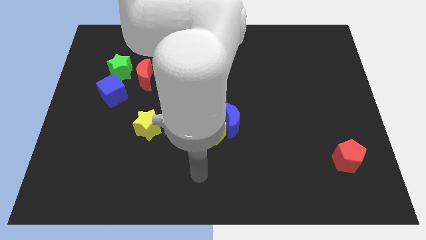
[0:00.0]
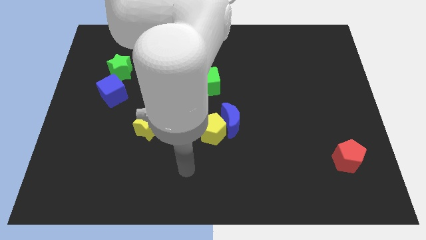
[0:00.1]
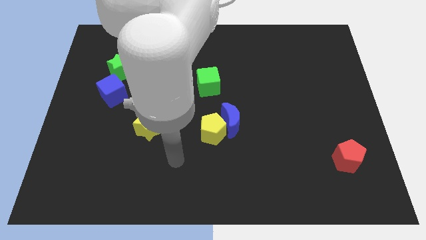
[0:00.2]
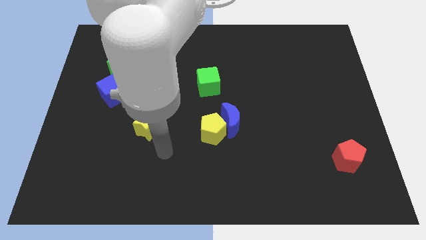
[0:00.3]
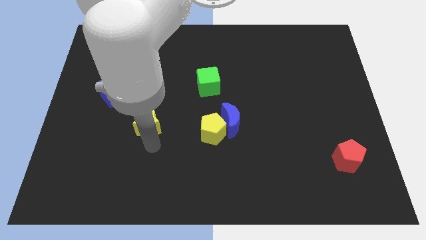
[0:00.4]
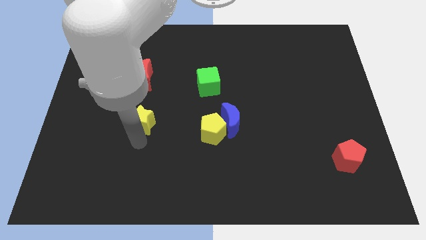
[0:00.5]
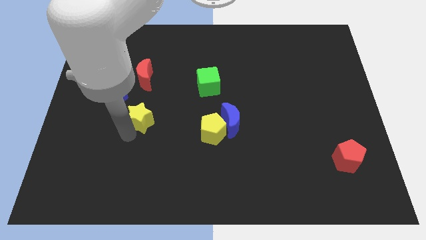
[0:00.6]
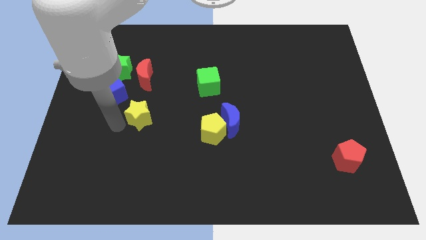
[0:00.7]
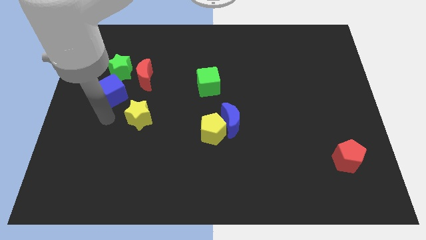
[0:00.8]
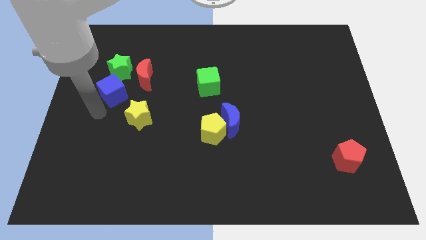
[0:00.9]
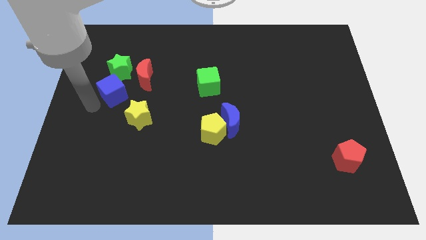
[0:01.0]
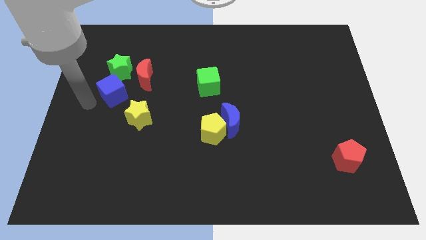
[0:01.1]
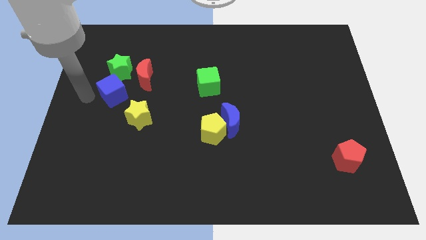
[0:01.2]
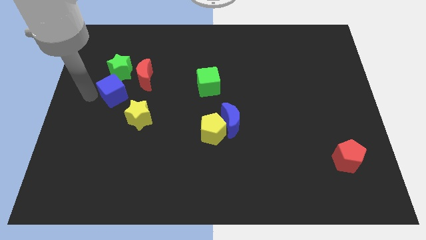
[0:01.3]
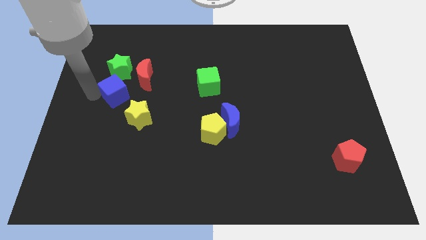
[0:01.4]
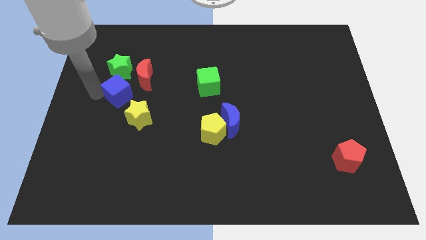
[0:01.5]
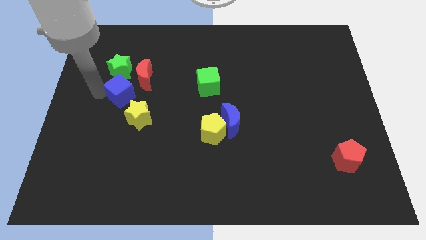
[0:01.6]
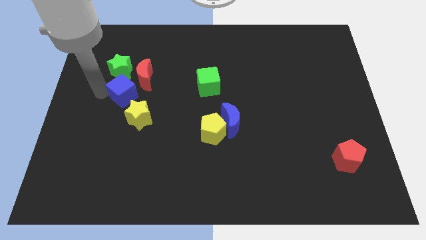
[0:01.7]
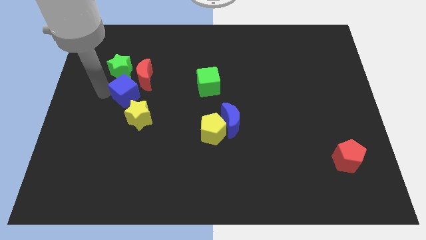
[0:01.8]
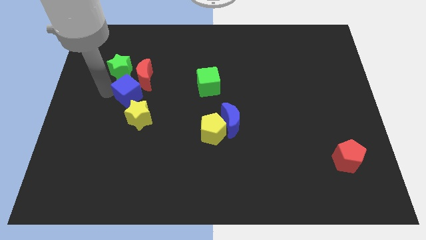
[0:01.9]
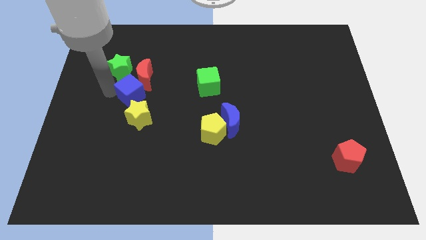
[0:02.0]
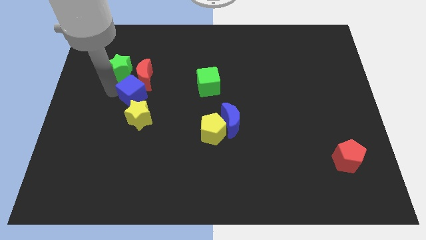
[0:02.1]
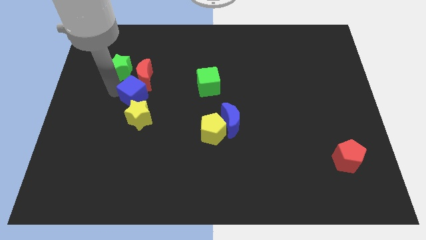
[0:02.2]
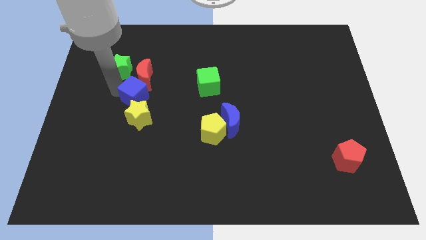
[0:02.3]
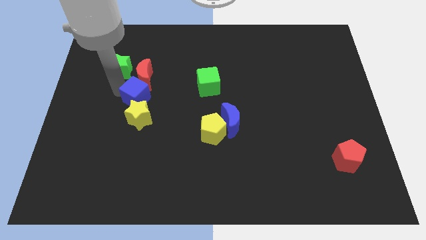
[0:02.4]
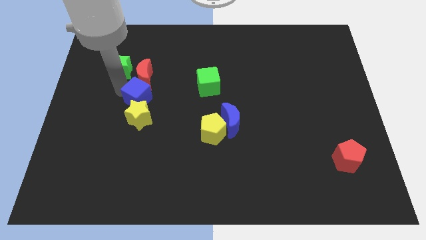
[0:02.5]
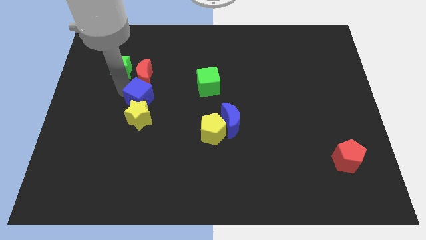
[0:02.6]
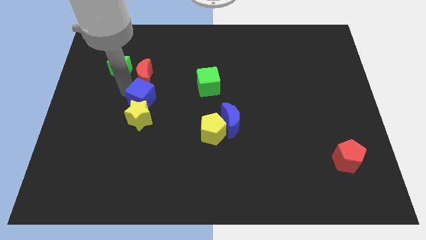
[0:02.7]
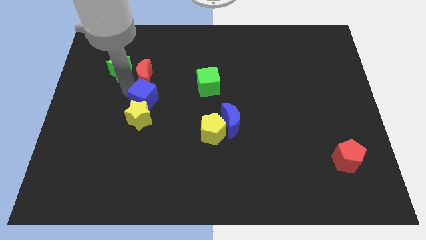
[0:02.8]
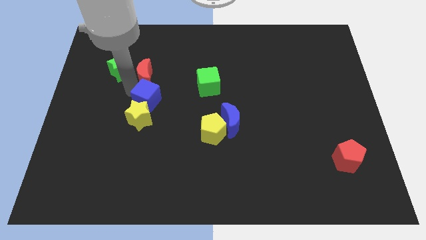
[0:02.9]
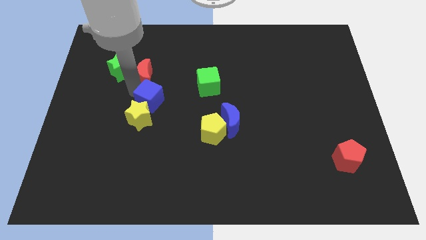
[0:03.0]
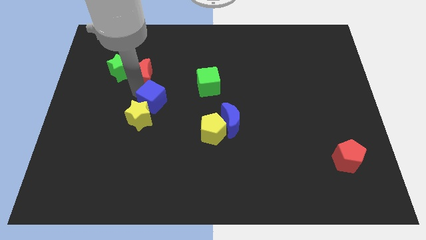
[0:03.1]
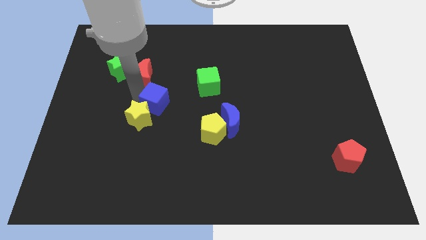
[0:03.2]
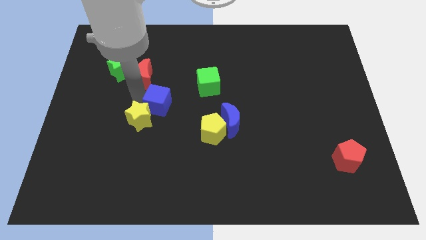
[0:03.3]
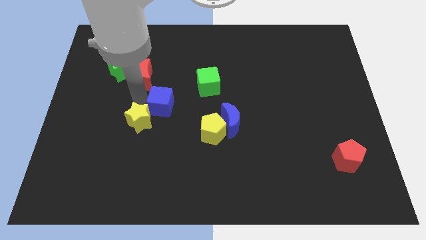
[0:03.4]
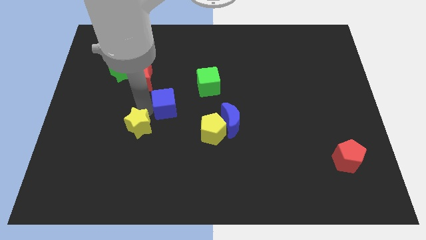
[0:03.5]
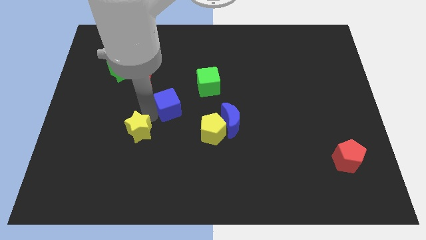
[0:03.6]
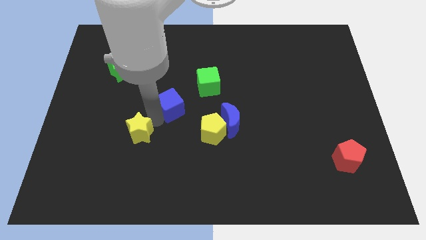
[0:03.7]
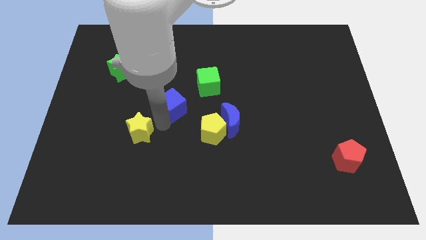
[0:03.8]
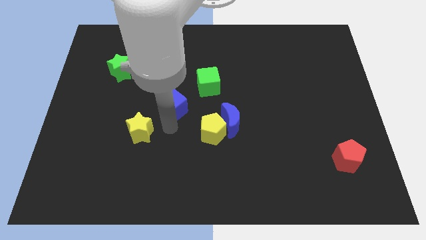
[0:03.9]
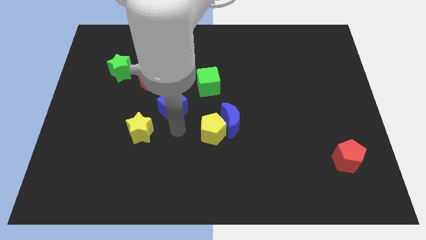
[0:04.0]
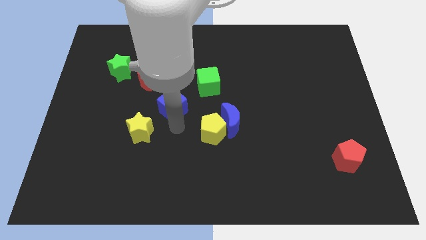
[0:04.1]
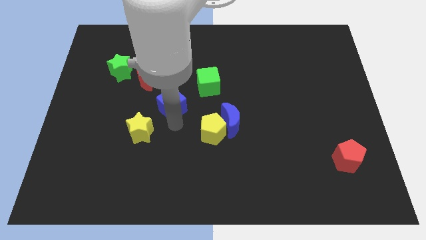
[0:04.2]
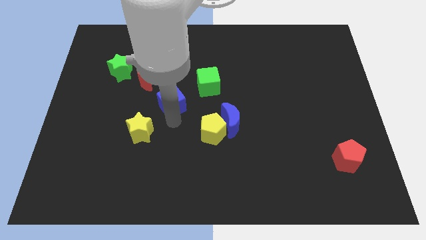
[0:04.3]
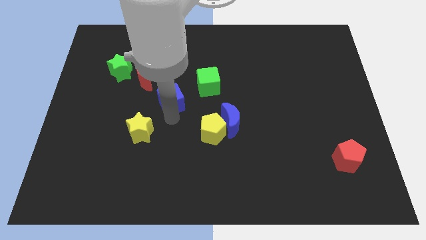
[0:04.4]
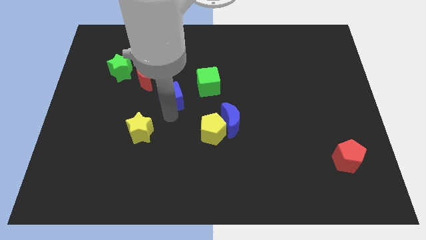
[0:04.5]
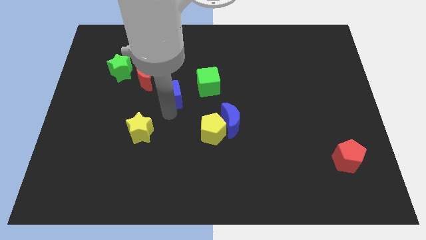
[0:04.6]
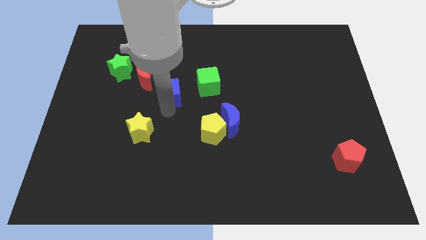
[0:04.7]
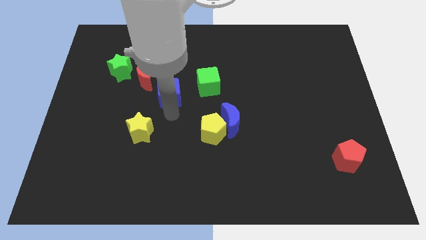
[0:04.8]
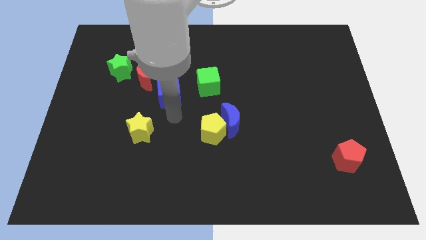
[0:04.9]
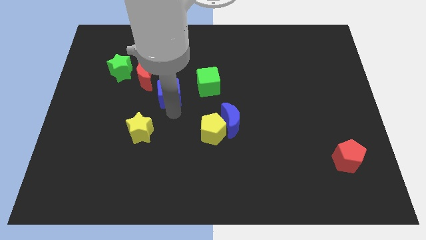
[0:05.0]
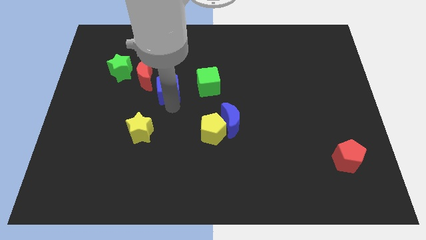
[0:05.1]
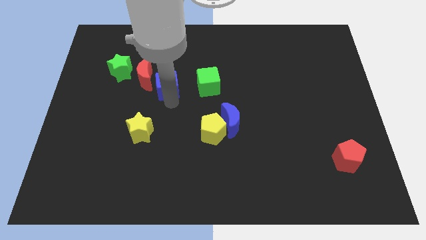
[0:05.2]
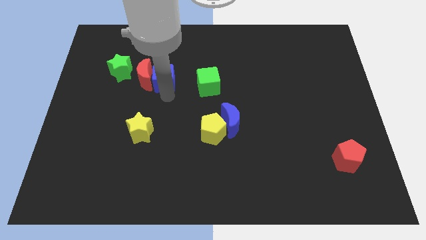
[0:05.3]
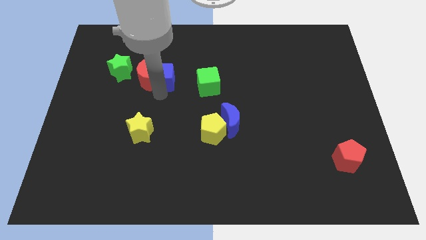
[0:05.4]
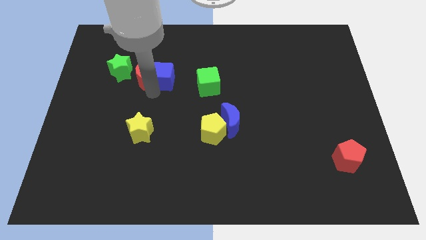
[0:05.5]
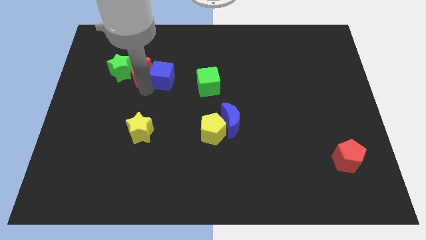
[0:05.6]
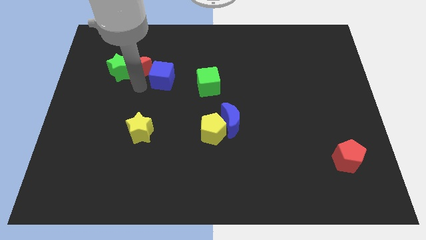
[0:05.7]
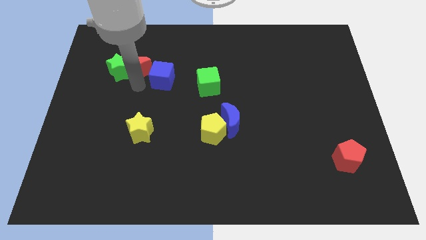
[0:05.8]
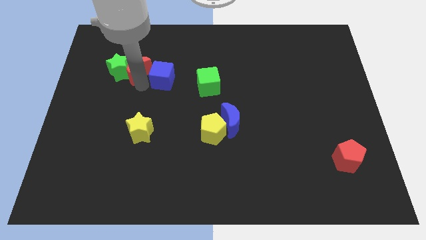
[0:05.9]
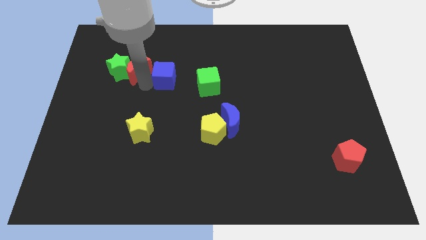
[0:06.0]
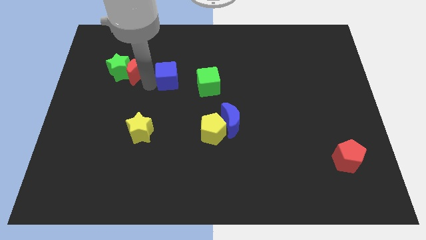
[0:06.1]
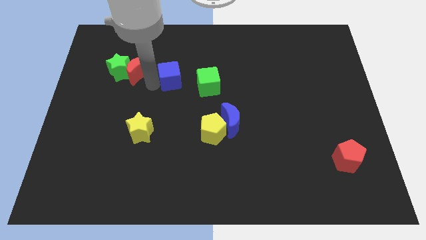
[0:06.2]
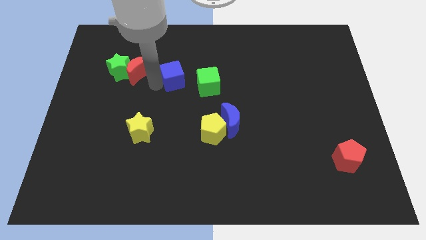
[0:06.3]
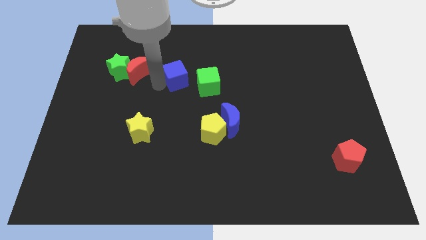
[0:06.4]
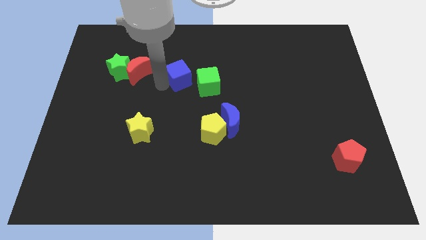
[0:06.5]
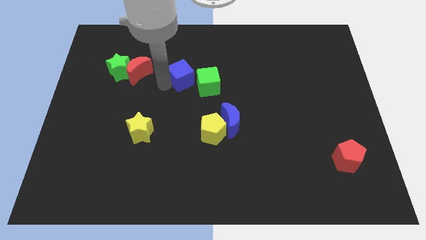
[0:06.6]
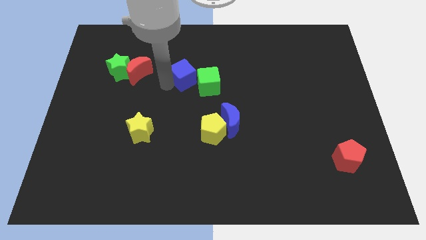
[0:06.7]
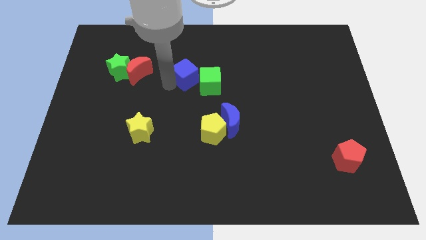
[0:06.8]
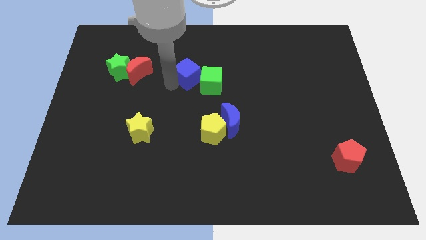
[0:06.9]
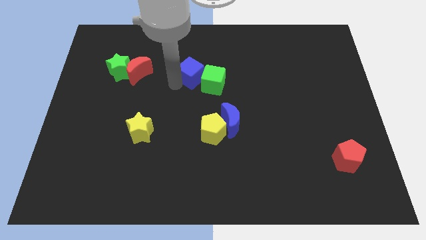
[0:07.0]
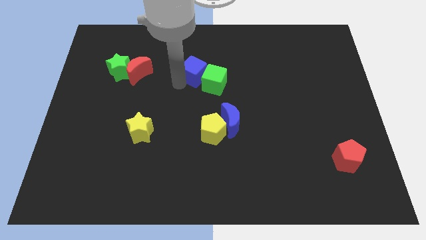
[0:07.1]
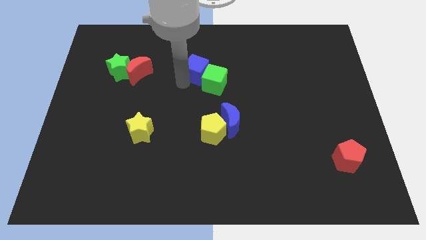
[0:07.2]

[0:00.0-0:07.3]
slide the blue cube to the top side of the green cube
